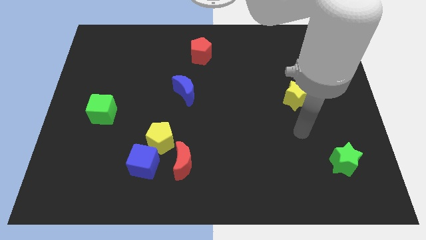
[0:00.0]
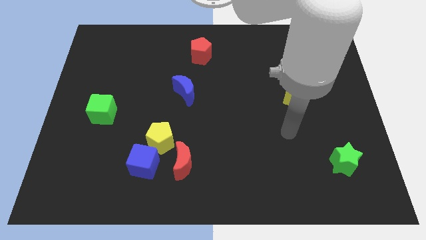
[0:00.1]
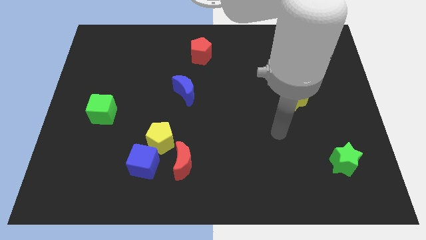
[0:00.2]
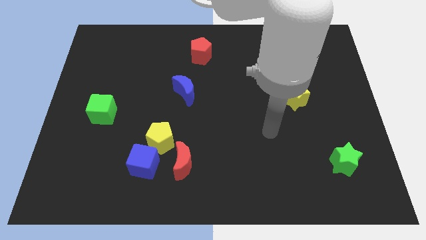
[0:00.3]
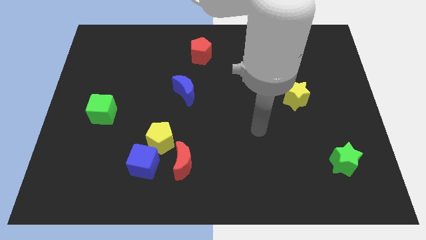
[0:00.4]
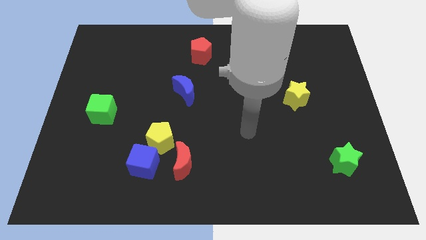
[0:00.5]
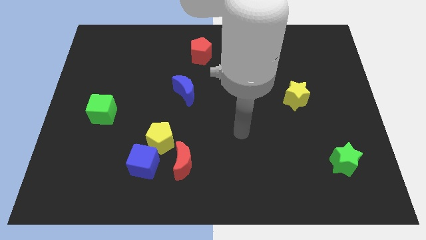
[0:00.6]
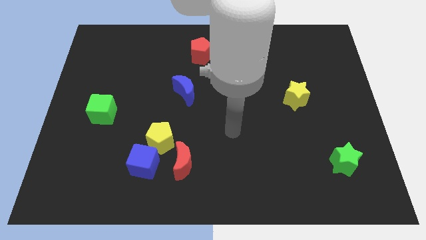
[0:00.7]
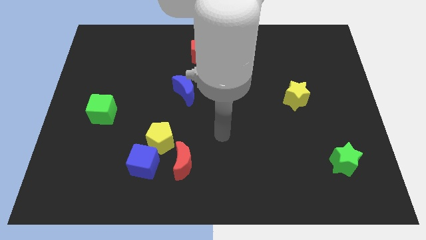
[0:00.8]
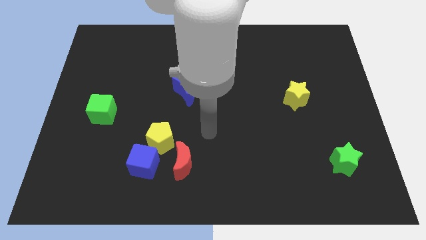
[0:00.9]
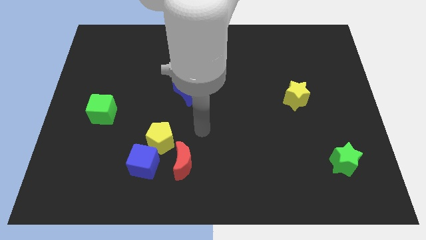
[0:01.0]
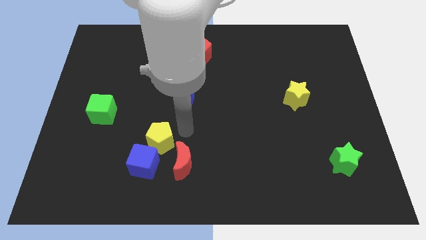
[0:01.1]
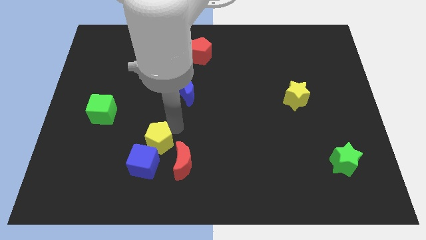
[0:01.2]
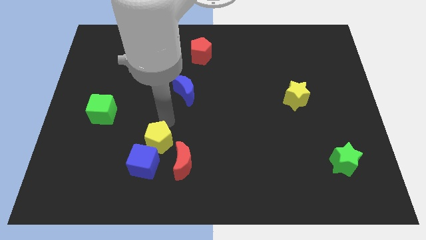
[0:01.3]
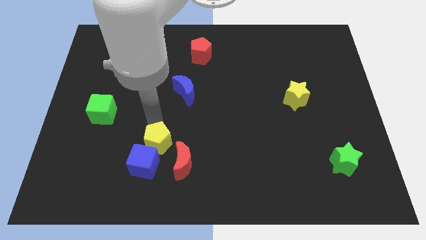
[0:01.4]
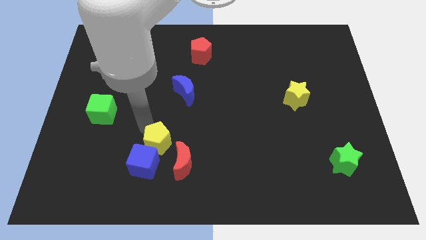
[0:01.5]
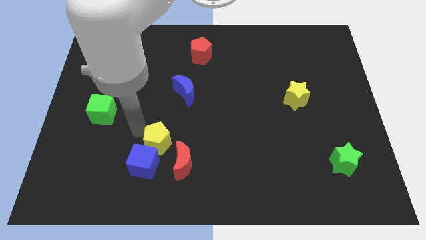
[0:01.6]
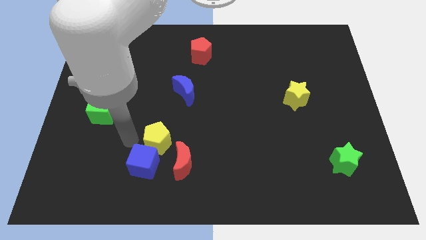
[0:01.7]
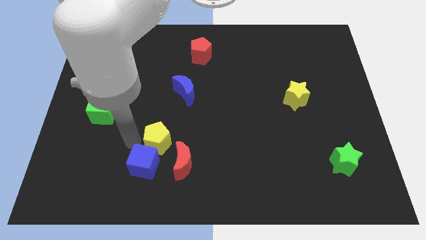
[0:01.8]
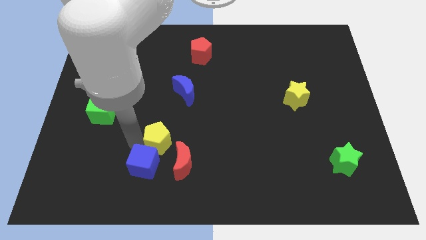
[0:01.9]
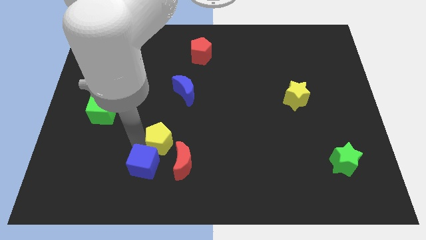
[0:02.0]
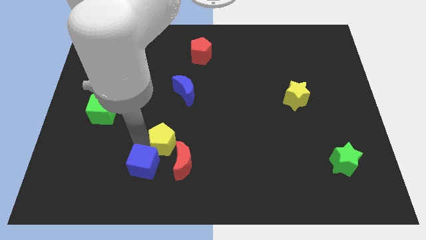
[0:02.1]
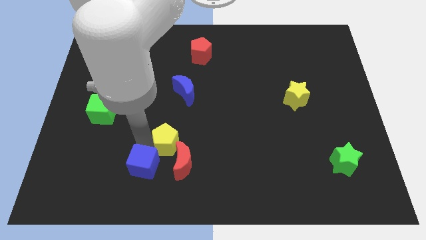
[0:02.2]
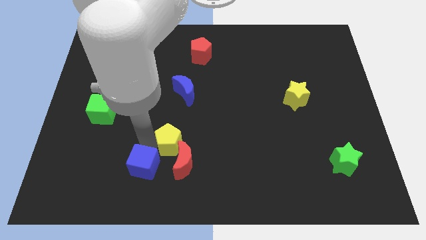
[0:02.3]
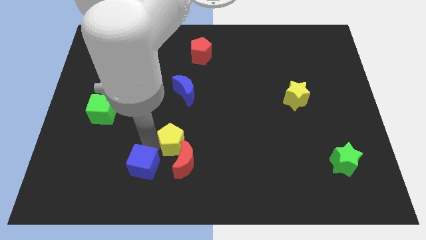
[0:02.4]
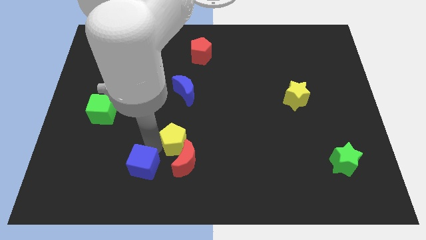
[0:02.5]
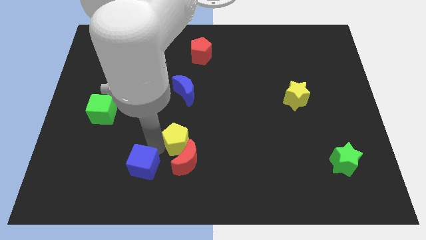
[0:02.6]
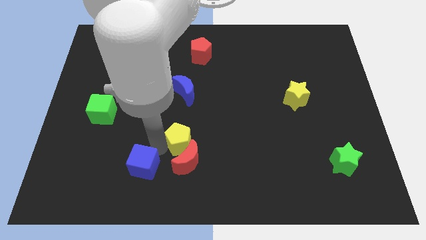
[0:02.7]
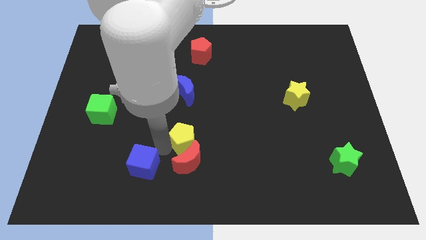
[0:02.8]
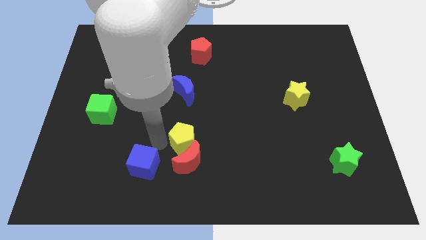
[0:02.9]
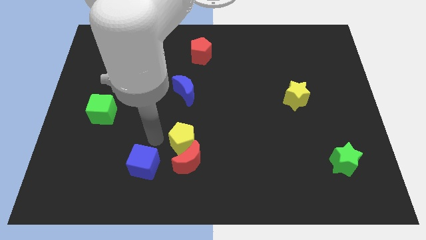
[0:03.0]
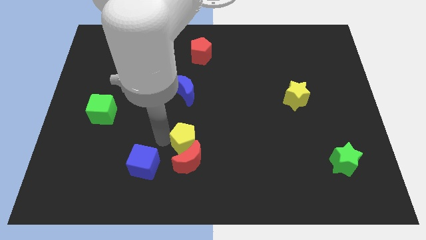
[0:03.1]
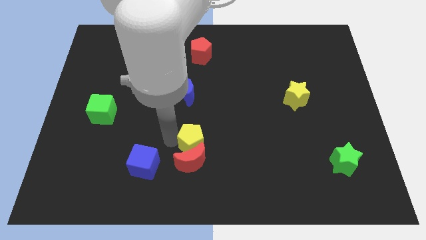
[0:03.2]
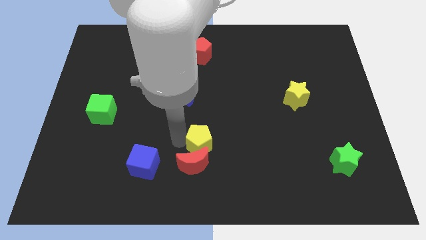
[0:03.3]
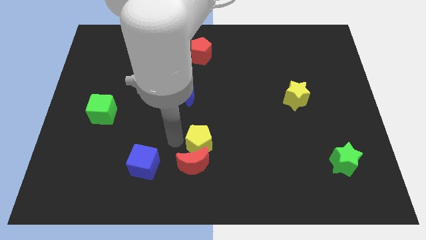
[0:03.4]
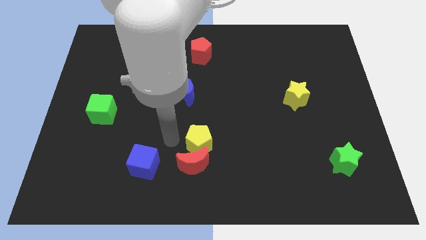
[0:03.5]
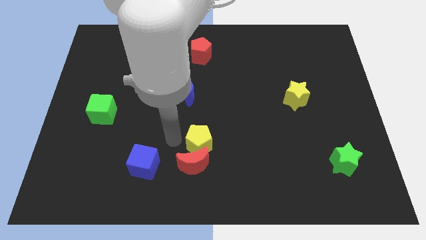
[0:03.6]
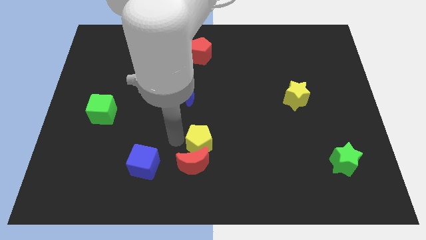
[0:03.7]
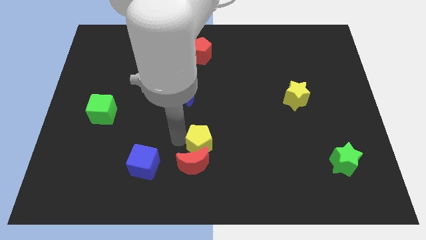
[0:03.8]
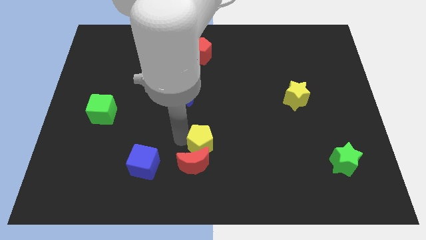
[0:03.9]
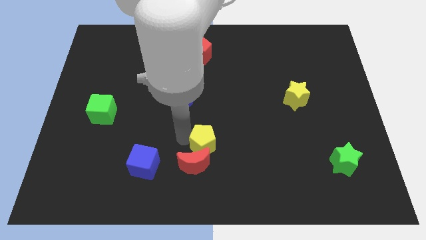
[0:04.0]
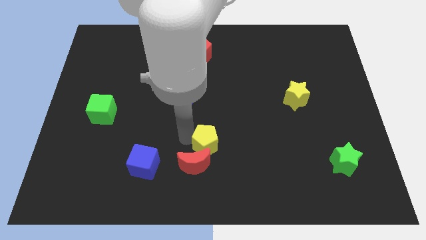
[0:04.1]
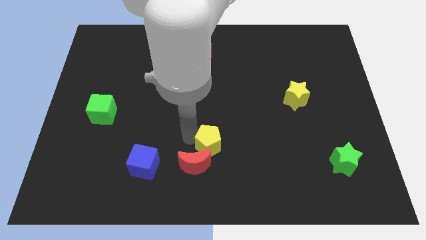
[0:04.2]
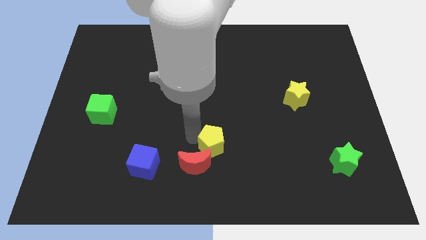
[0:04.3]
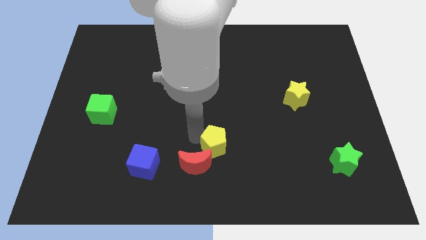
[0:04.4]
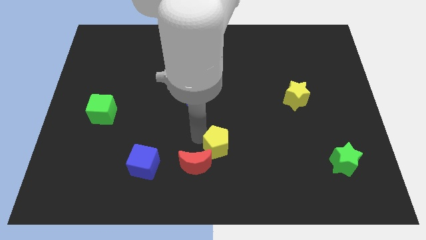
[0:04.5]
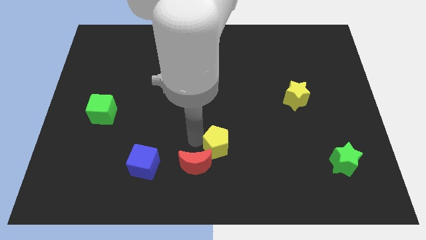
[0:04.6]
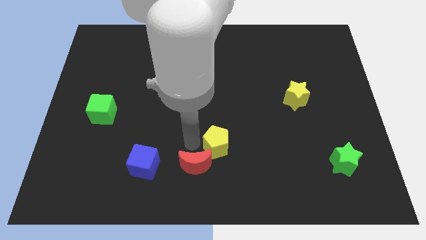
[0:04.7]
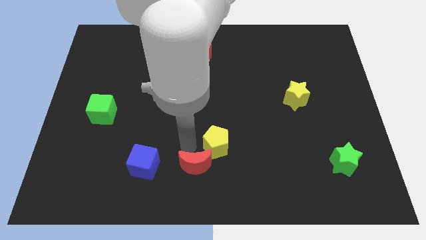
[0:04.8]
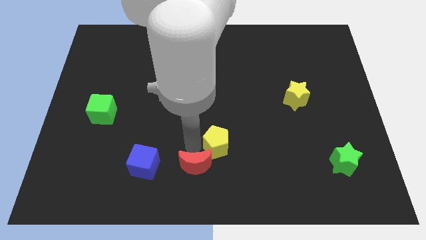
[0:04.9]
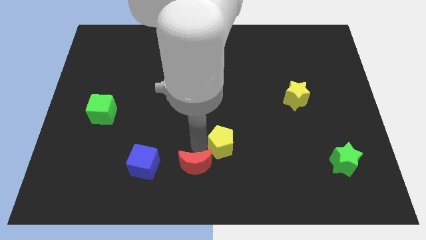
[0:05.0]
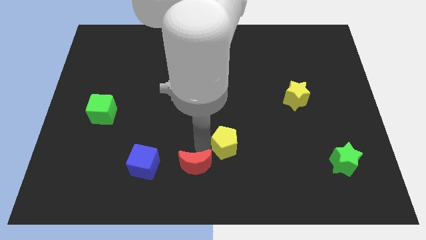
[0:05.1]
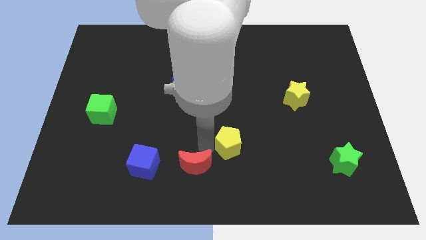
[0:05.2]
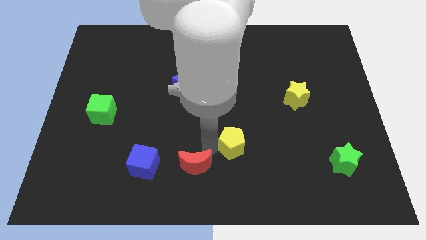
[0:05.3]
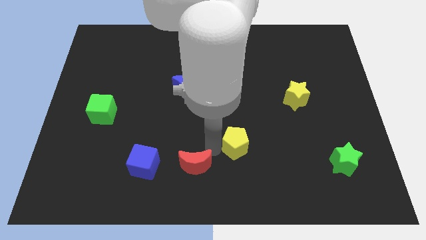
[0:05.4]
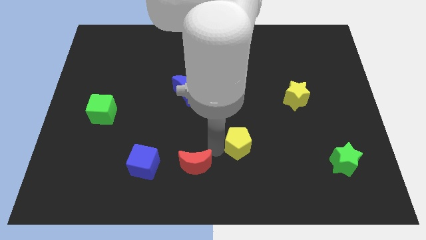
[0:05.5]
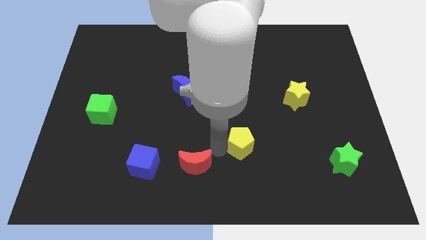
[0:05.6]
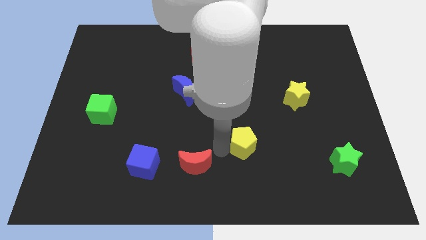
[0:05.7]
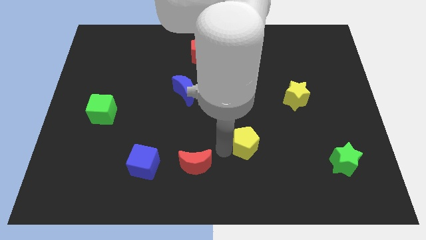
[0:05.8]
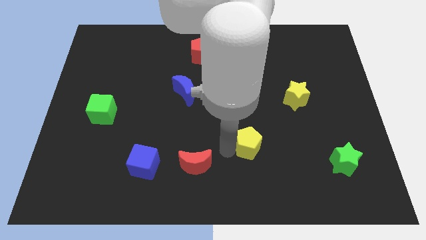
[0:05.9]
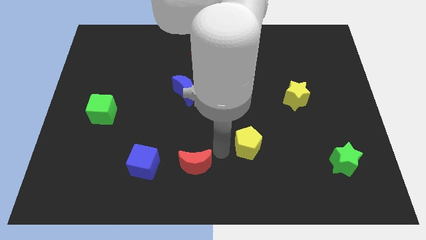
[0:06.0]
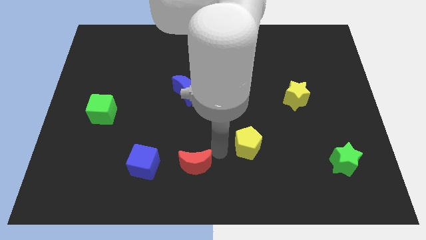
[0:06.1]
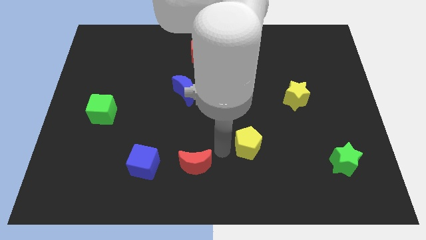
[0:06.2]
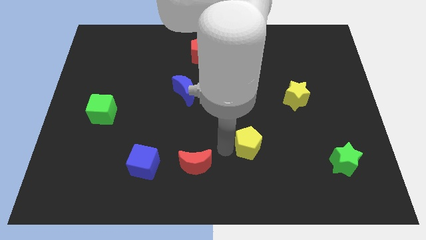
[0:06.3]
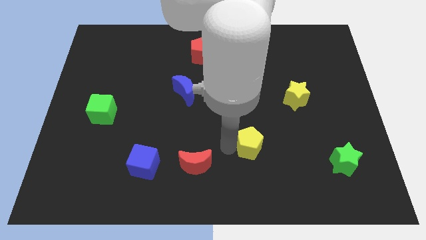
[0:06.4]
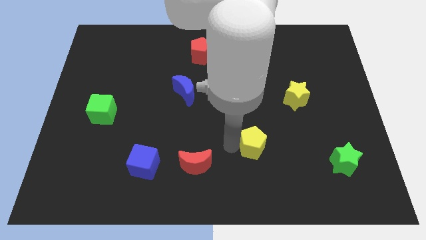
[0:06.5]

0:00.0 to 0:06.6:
slide the yellow pentagon to the right

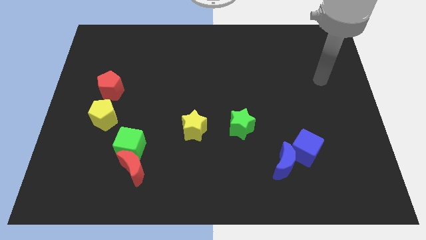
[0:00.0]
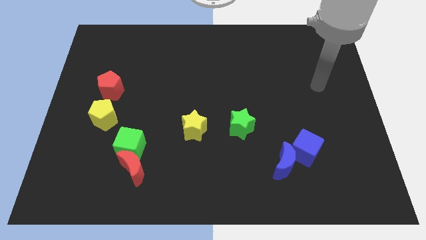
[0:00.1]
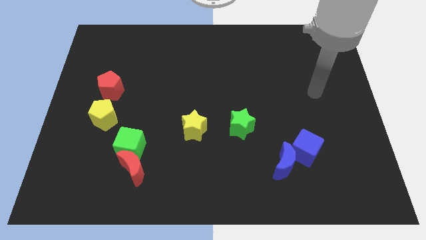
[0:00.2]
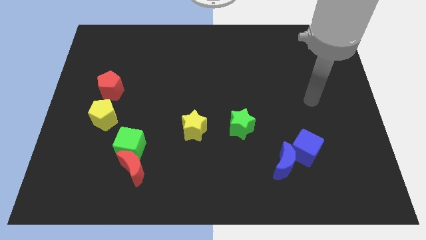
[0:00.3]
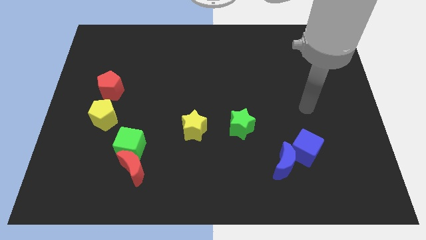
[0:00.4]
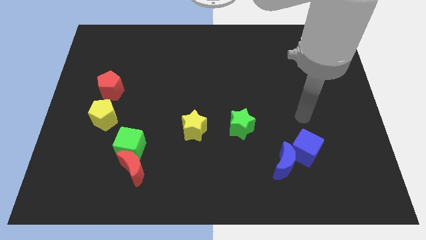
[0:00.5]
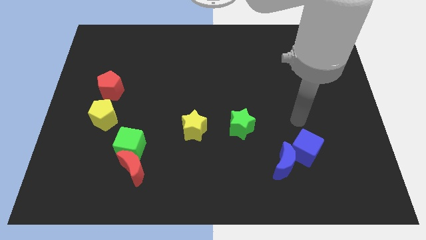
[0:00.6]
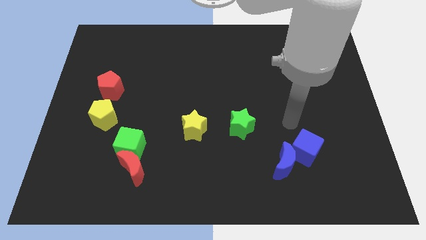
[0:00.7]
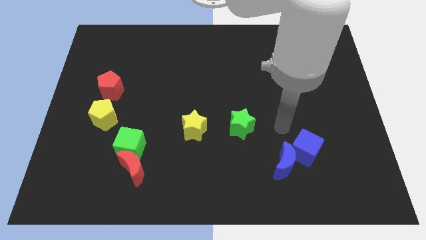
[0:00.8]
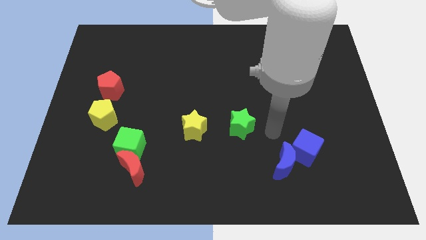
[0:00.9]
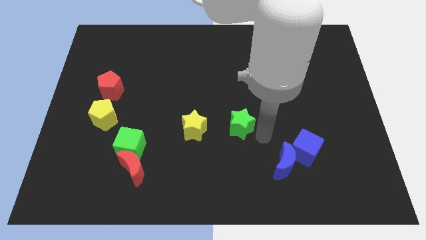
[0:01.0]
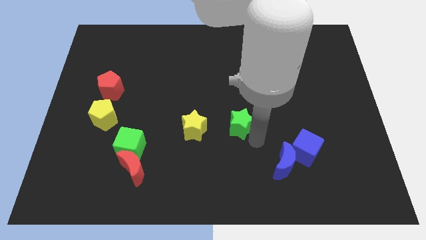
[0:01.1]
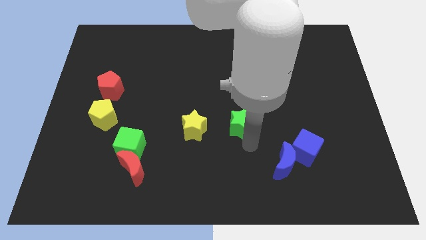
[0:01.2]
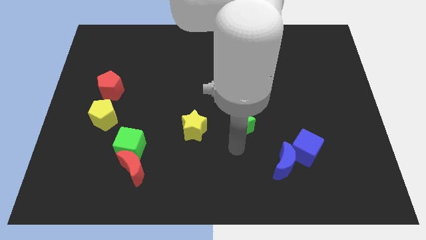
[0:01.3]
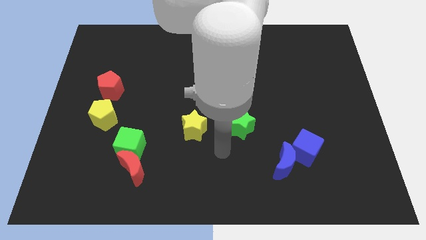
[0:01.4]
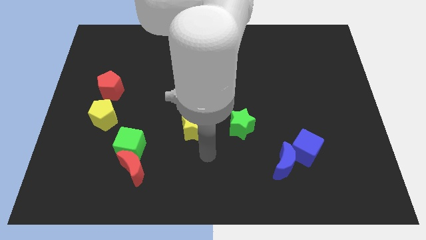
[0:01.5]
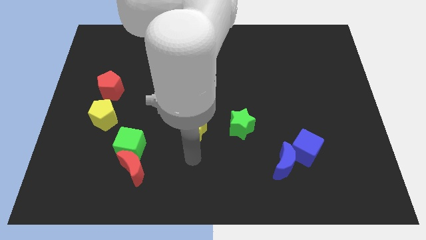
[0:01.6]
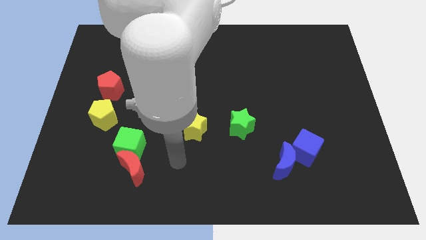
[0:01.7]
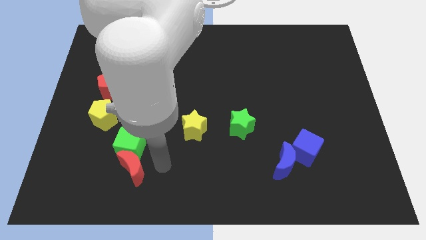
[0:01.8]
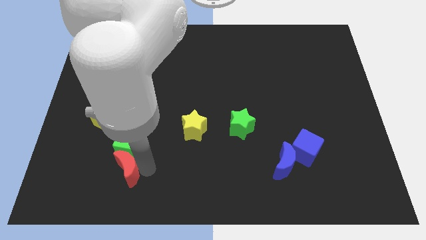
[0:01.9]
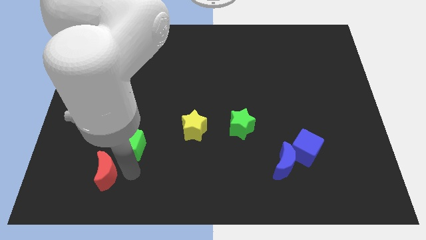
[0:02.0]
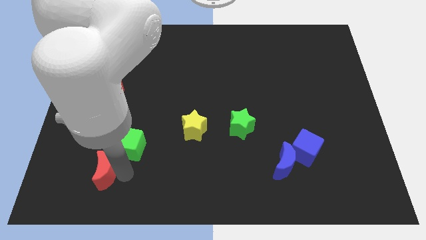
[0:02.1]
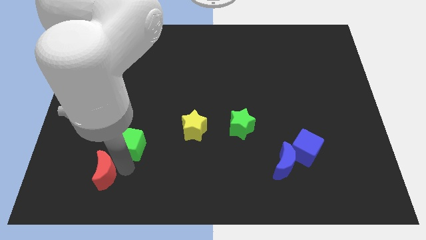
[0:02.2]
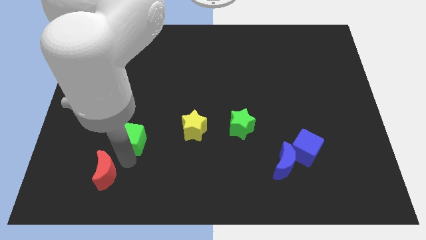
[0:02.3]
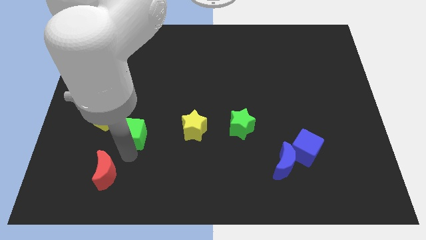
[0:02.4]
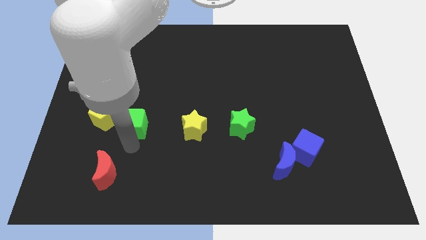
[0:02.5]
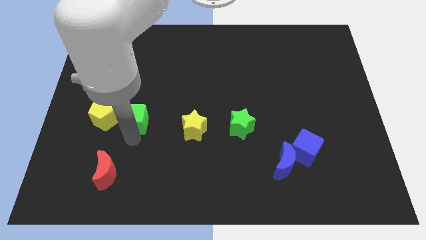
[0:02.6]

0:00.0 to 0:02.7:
slide the green cube upwards somewhat
